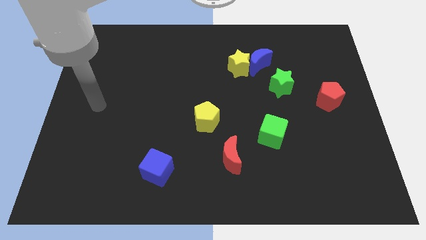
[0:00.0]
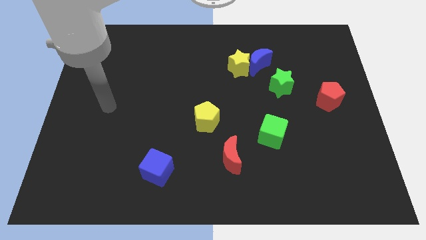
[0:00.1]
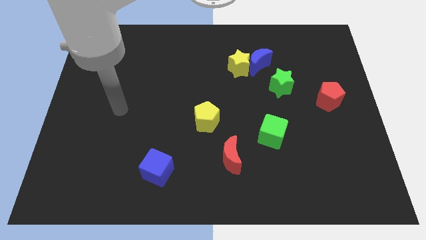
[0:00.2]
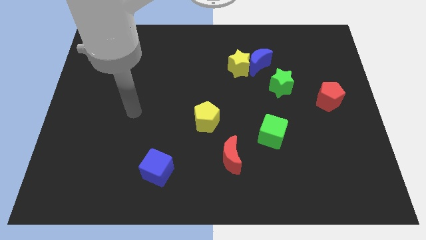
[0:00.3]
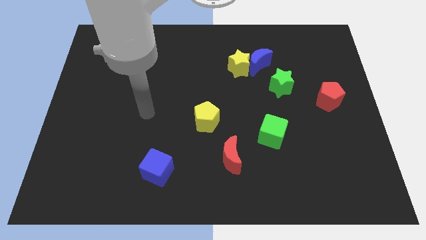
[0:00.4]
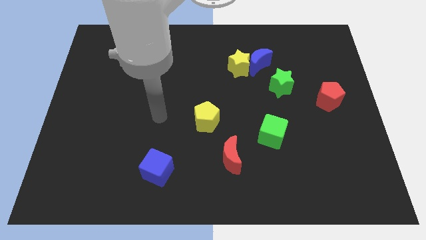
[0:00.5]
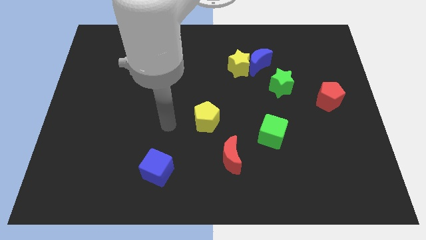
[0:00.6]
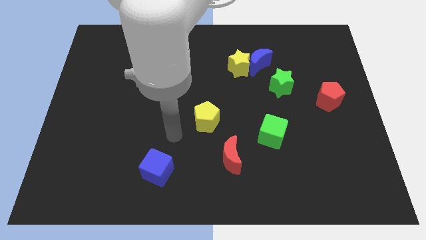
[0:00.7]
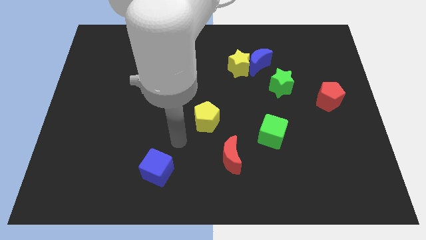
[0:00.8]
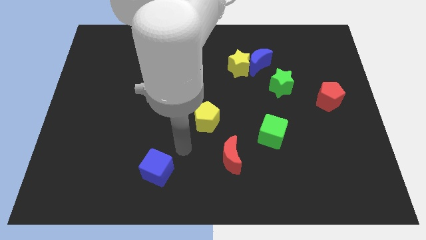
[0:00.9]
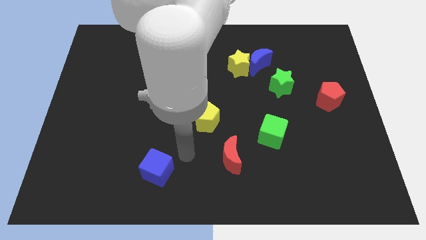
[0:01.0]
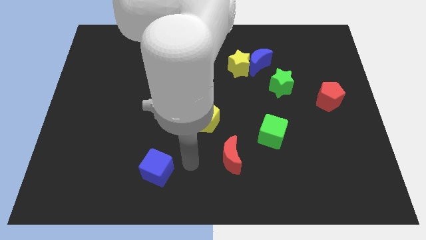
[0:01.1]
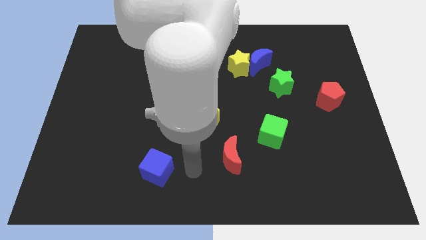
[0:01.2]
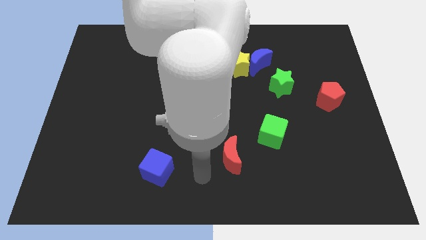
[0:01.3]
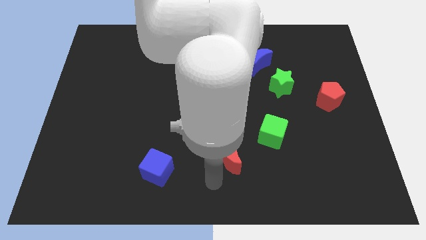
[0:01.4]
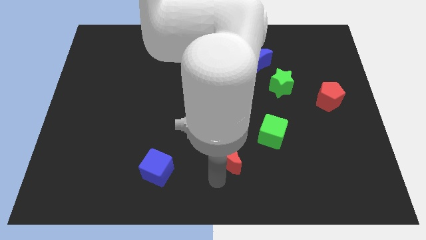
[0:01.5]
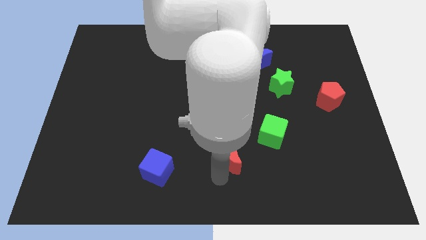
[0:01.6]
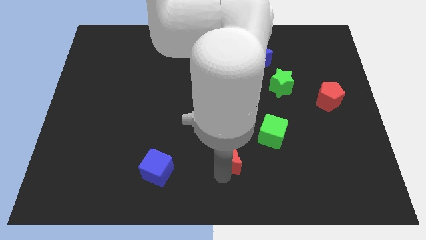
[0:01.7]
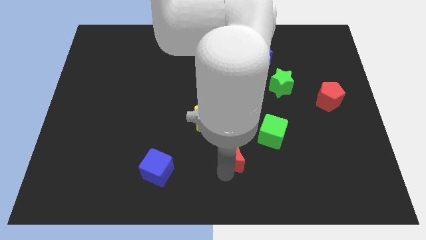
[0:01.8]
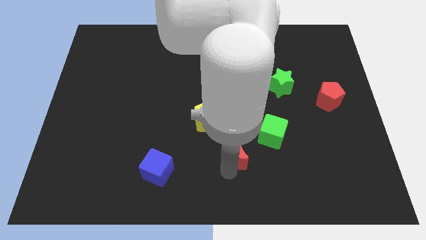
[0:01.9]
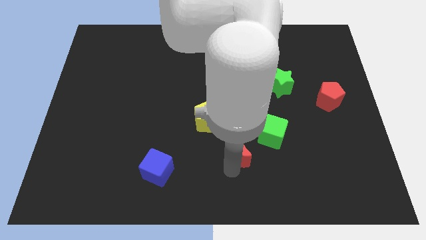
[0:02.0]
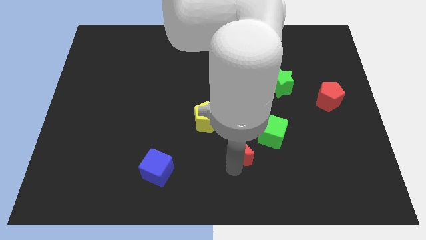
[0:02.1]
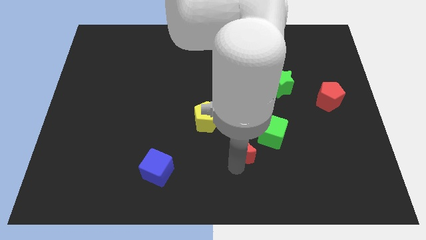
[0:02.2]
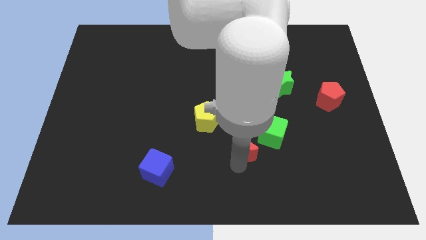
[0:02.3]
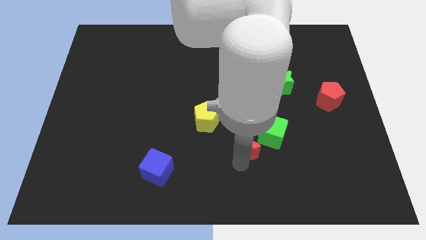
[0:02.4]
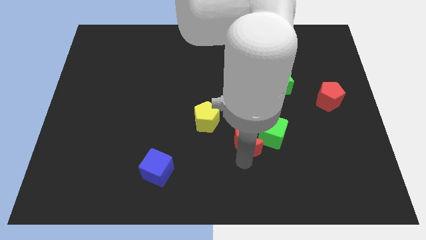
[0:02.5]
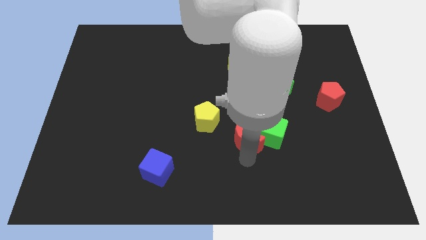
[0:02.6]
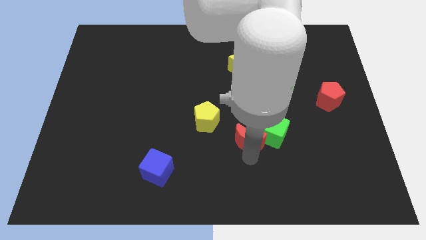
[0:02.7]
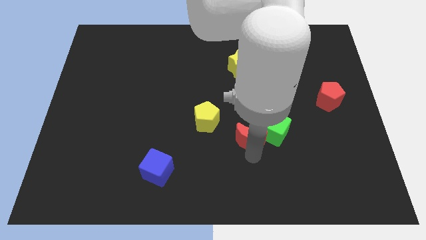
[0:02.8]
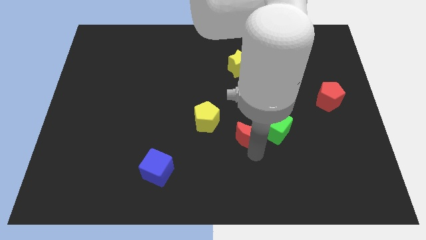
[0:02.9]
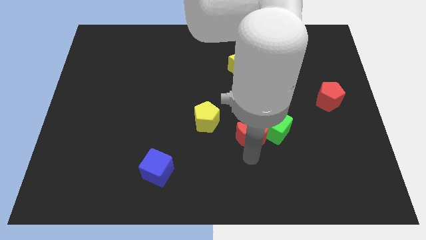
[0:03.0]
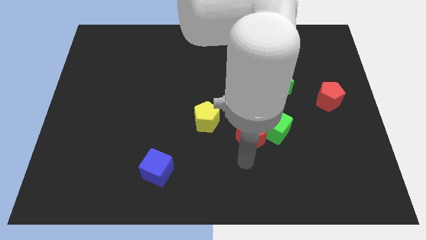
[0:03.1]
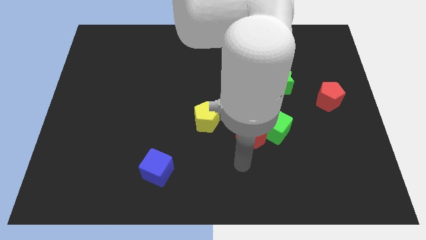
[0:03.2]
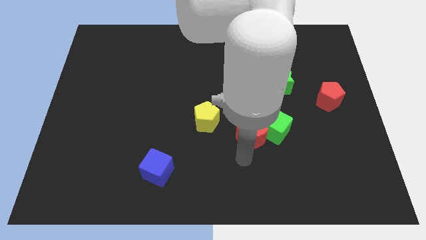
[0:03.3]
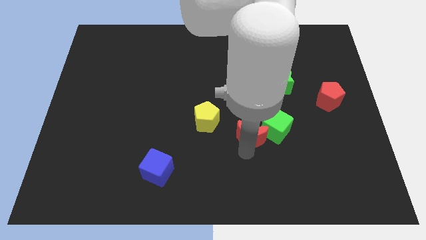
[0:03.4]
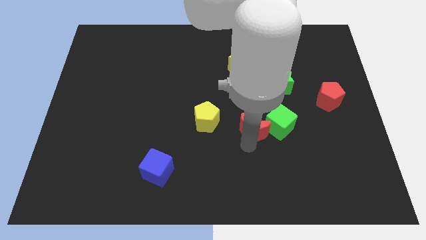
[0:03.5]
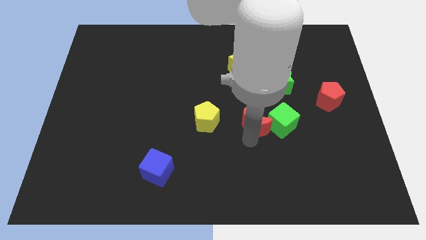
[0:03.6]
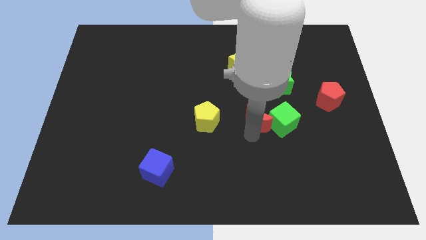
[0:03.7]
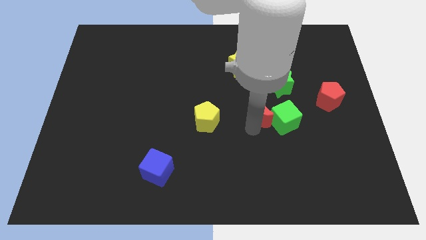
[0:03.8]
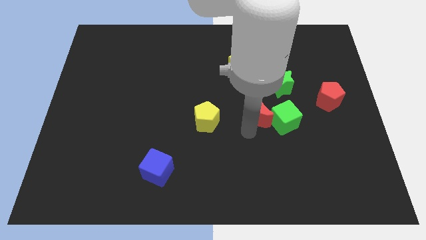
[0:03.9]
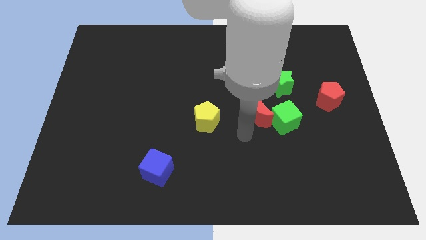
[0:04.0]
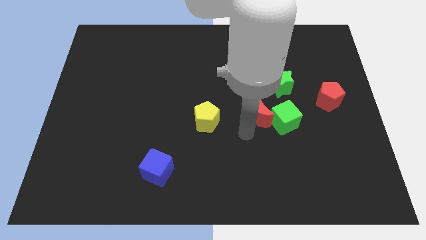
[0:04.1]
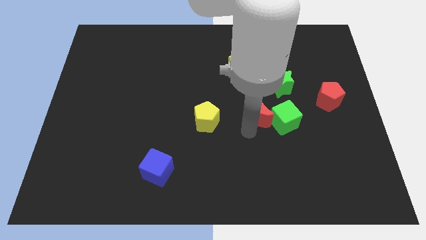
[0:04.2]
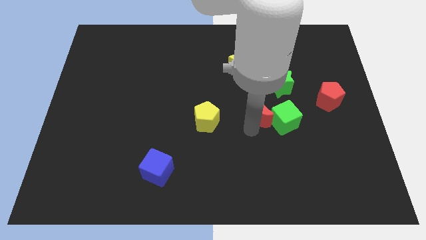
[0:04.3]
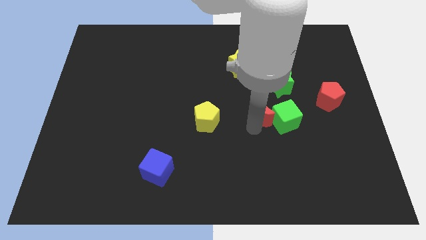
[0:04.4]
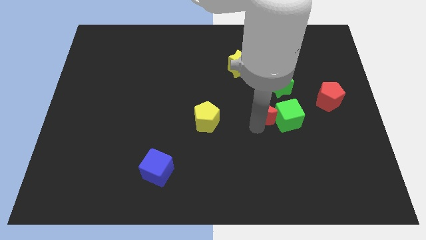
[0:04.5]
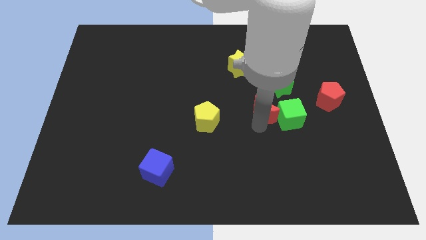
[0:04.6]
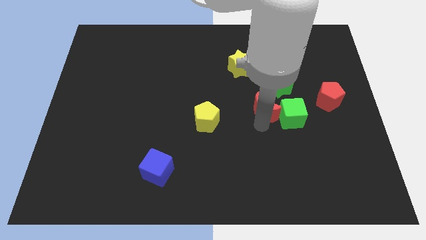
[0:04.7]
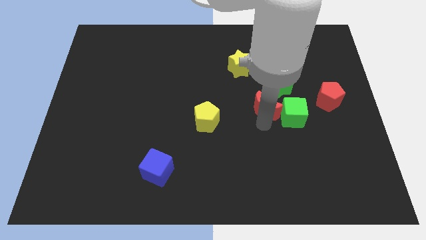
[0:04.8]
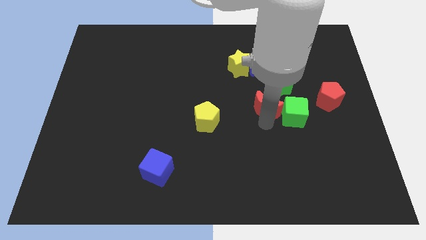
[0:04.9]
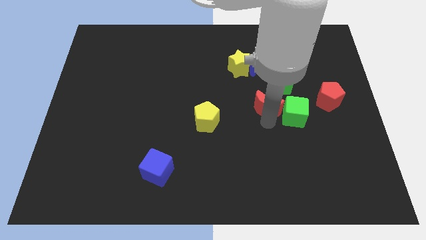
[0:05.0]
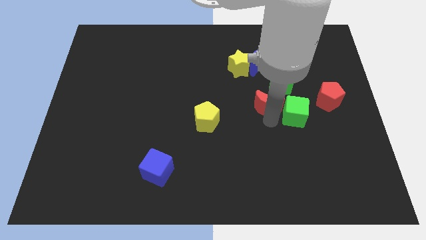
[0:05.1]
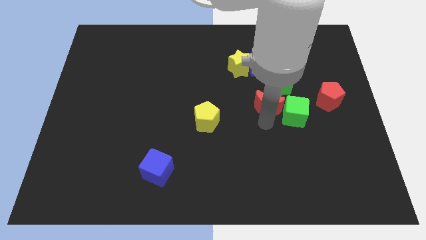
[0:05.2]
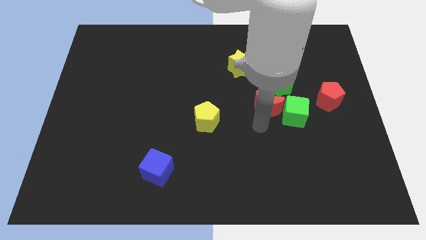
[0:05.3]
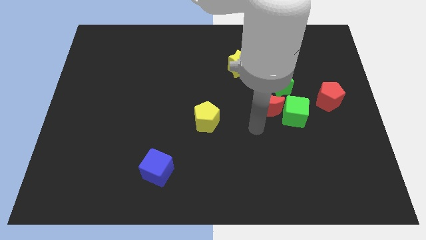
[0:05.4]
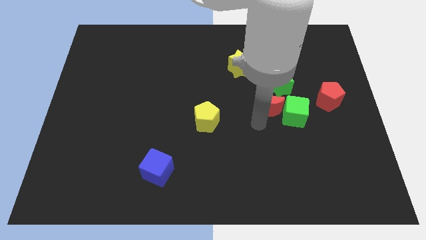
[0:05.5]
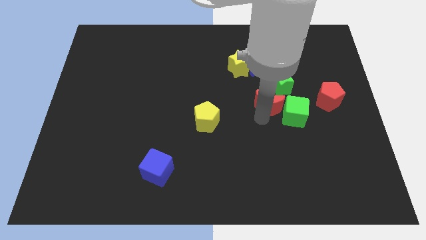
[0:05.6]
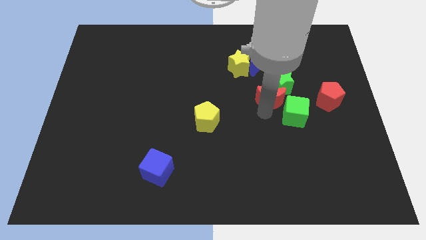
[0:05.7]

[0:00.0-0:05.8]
put the red moon to the green star
